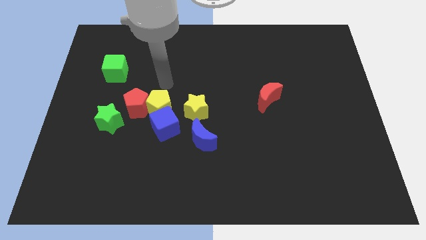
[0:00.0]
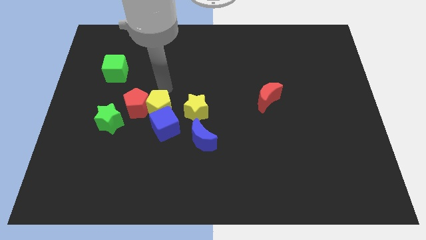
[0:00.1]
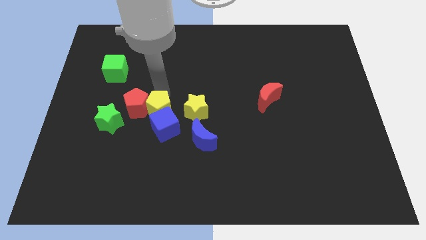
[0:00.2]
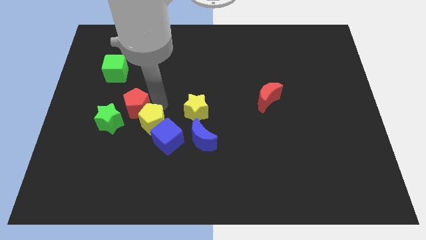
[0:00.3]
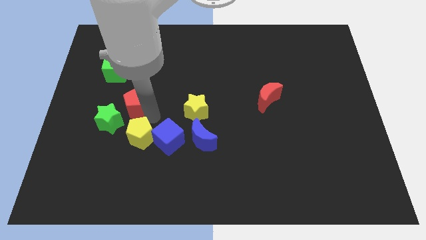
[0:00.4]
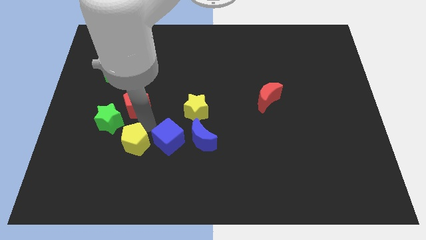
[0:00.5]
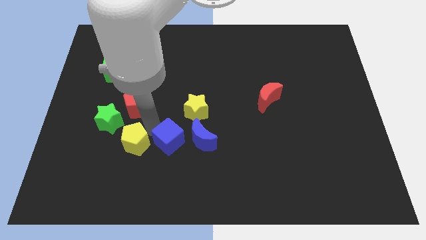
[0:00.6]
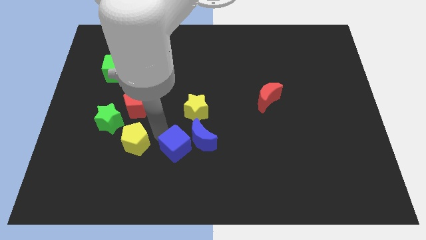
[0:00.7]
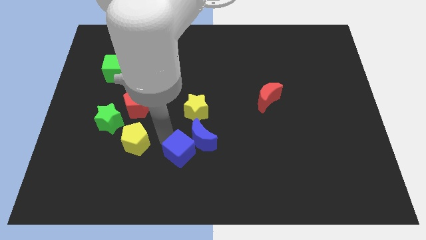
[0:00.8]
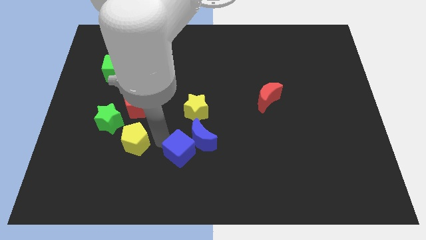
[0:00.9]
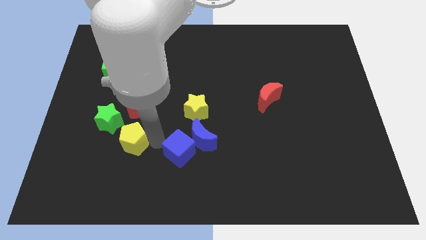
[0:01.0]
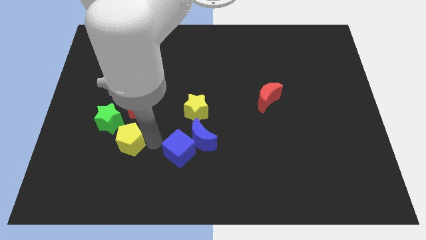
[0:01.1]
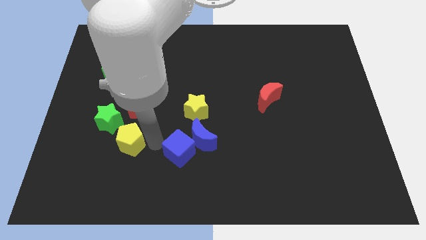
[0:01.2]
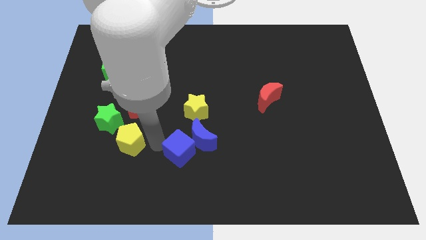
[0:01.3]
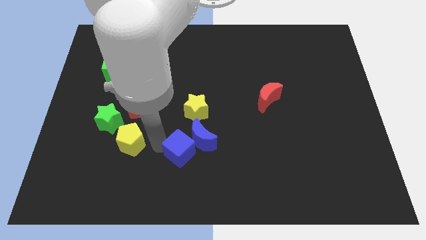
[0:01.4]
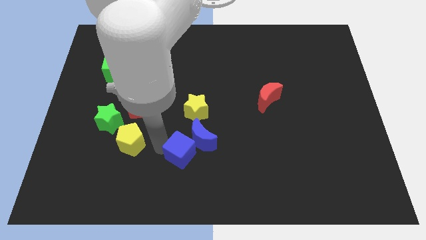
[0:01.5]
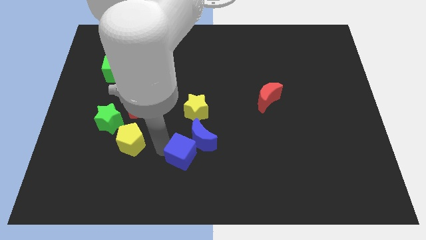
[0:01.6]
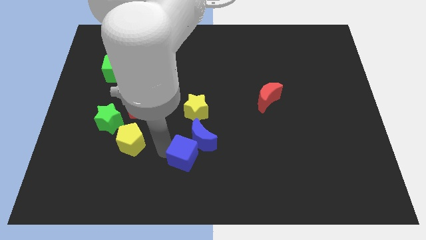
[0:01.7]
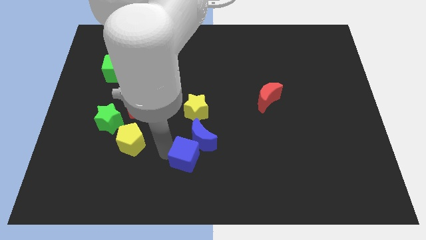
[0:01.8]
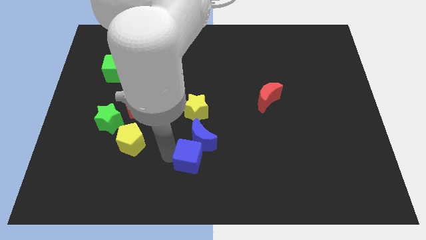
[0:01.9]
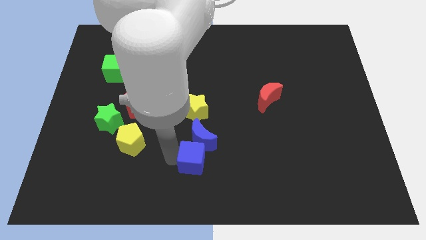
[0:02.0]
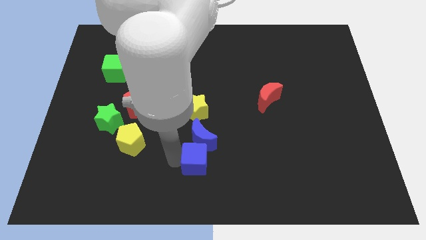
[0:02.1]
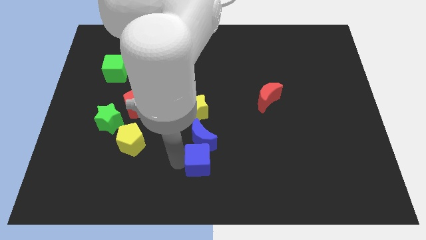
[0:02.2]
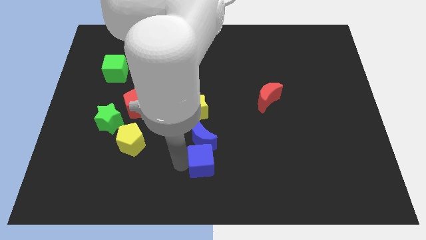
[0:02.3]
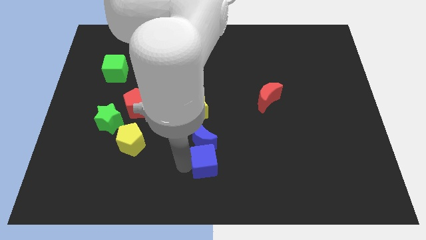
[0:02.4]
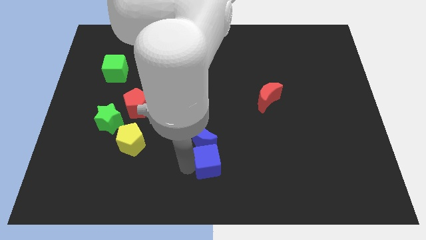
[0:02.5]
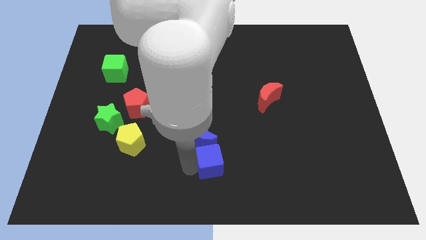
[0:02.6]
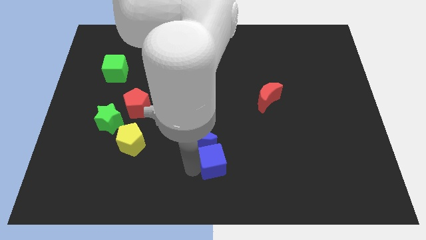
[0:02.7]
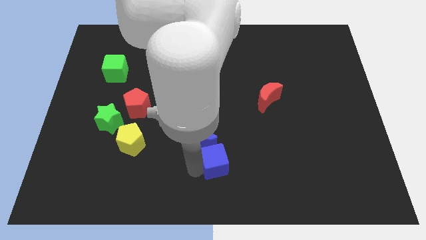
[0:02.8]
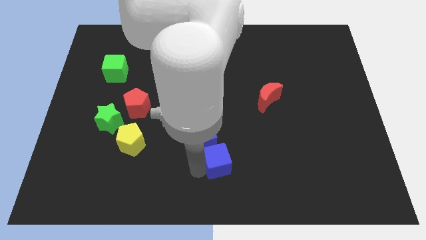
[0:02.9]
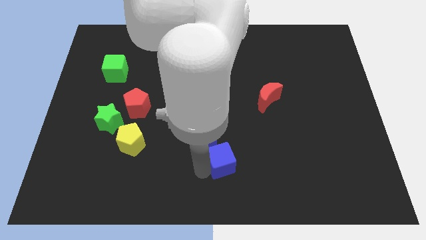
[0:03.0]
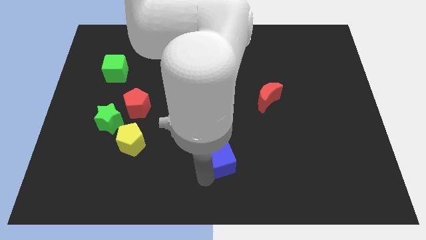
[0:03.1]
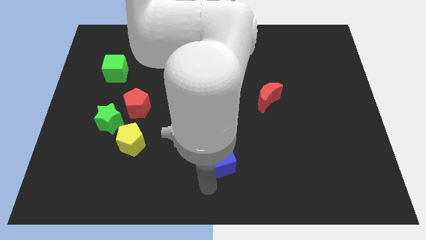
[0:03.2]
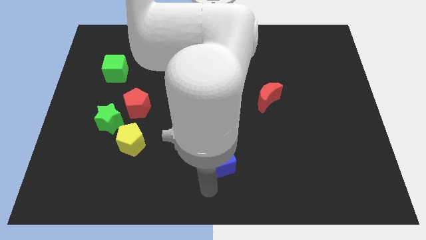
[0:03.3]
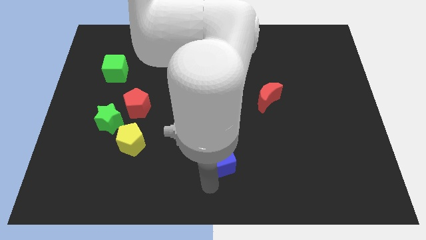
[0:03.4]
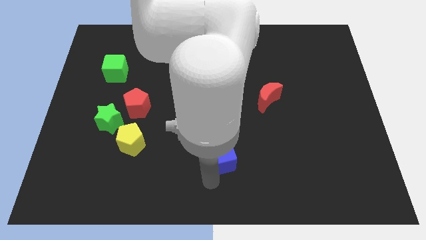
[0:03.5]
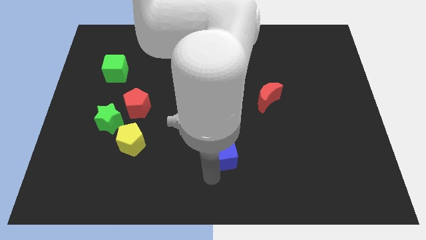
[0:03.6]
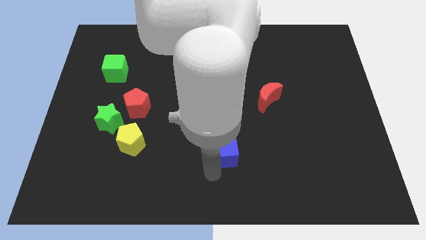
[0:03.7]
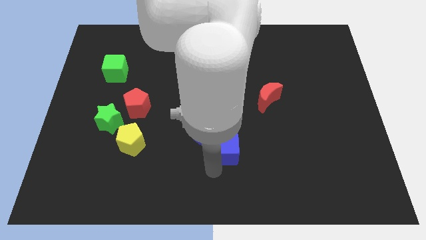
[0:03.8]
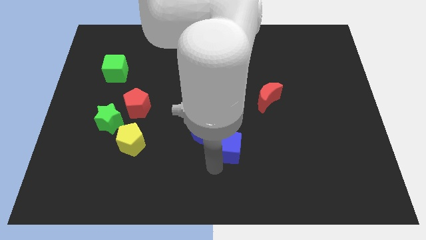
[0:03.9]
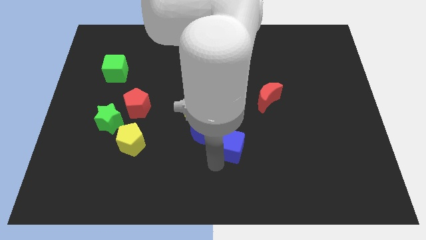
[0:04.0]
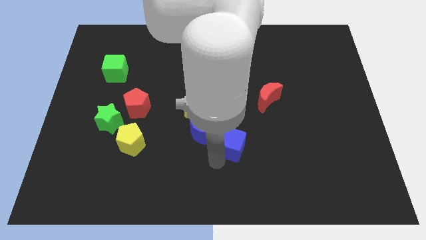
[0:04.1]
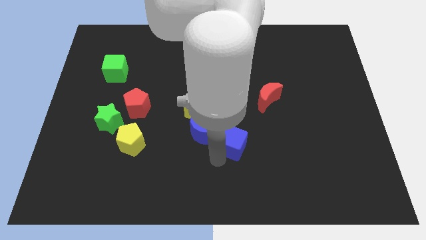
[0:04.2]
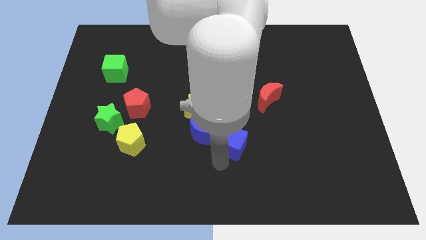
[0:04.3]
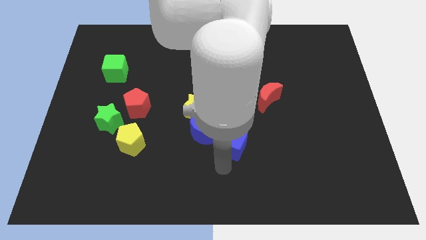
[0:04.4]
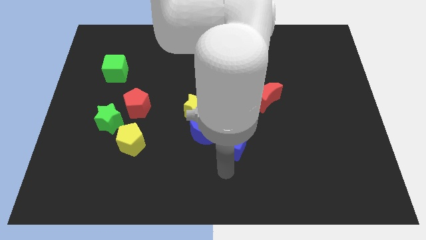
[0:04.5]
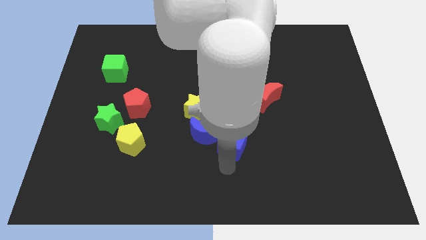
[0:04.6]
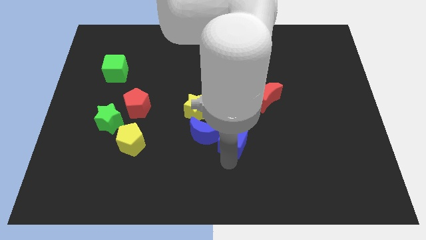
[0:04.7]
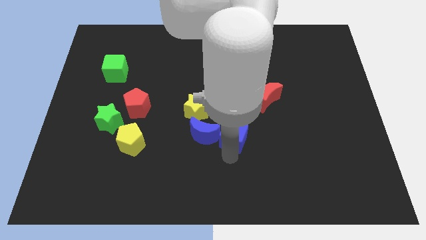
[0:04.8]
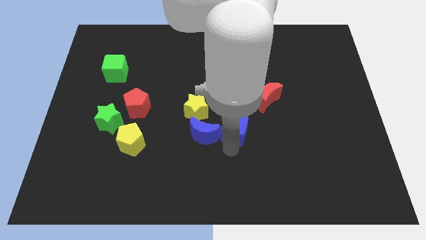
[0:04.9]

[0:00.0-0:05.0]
push the blue cube to the bottom left side of the red moon

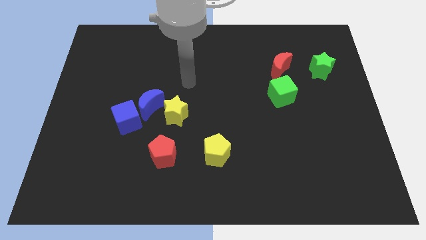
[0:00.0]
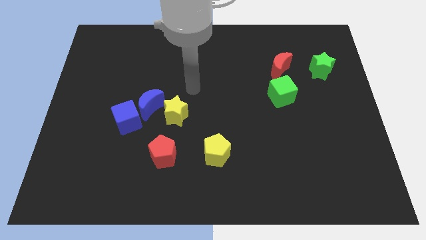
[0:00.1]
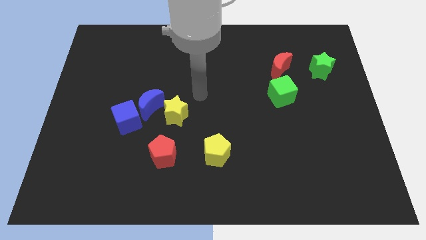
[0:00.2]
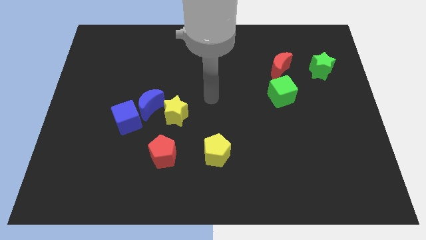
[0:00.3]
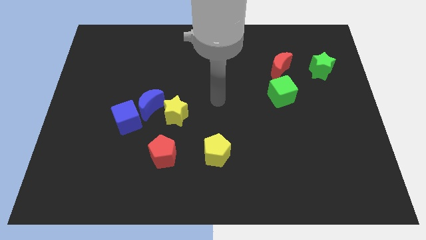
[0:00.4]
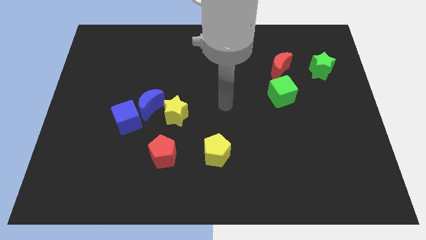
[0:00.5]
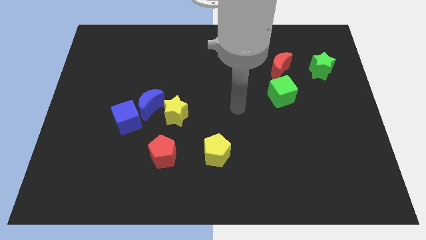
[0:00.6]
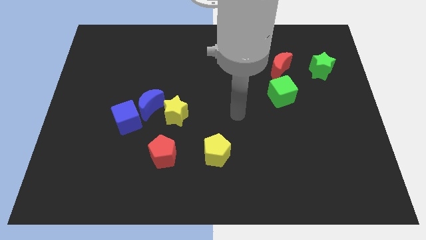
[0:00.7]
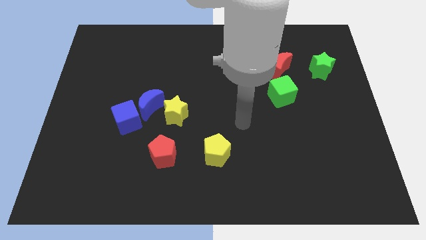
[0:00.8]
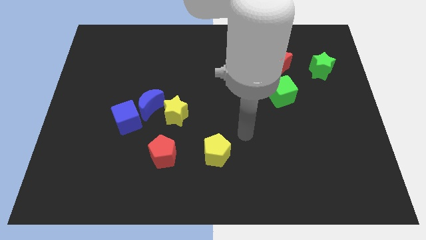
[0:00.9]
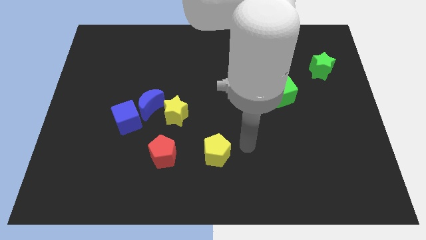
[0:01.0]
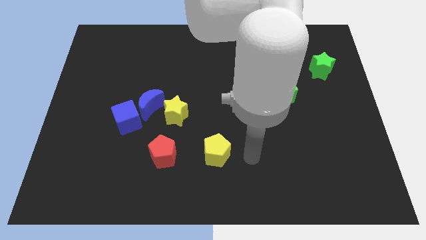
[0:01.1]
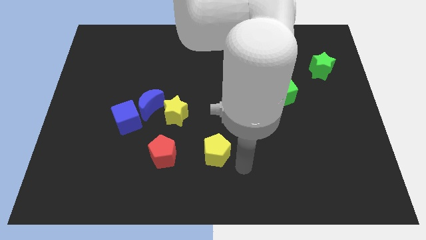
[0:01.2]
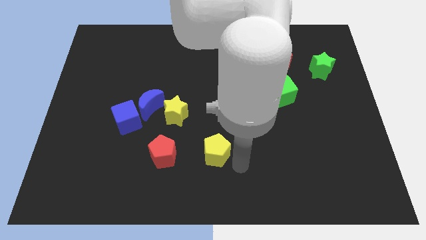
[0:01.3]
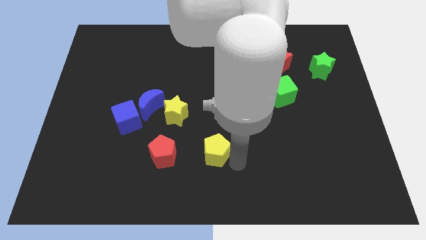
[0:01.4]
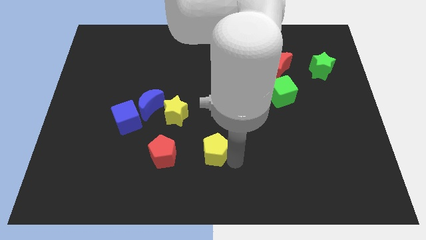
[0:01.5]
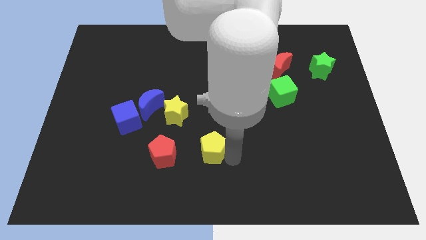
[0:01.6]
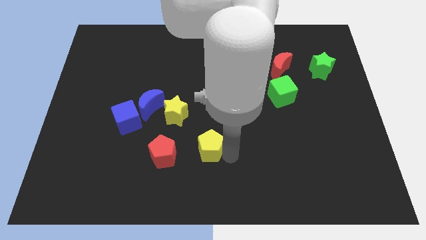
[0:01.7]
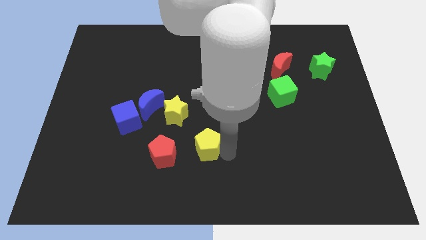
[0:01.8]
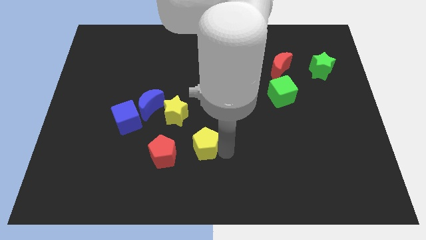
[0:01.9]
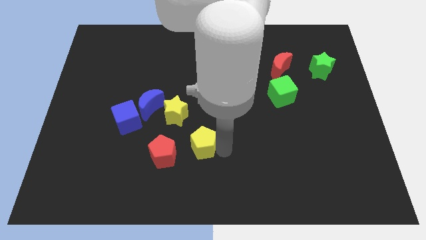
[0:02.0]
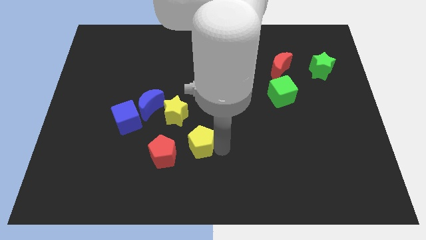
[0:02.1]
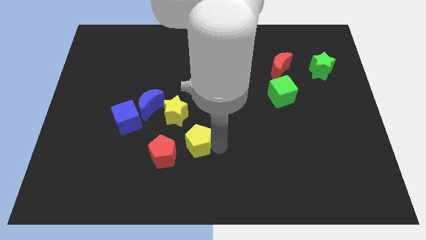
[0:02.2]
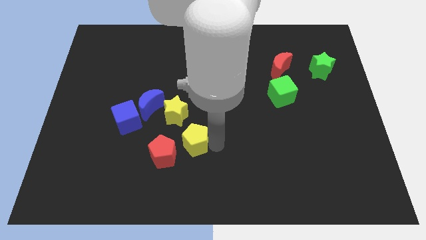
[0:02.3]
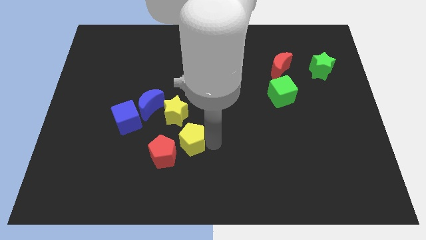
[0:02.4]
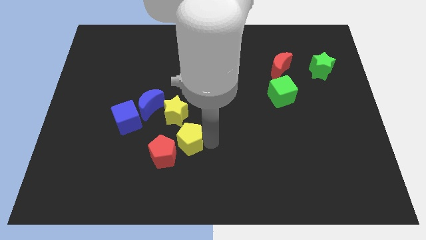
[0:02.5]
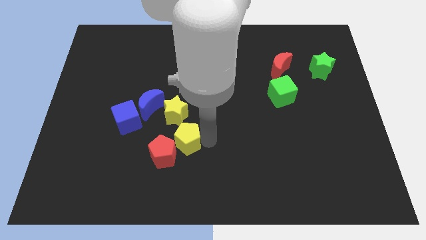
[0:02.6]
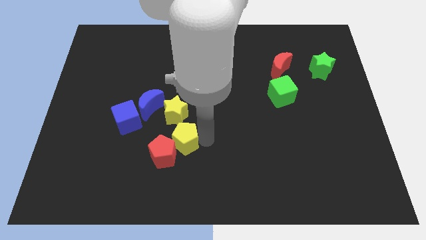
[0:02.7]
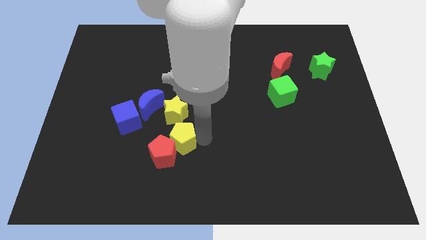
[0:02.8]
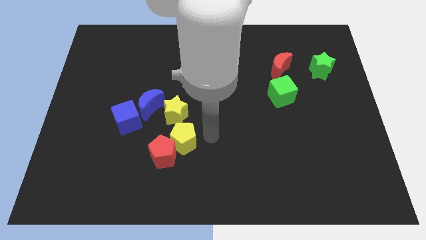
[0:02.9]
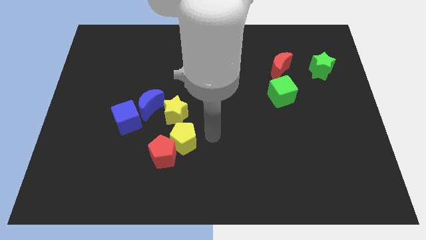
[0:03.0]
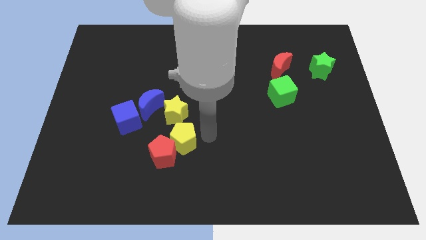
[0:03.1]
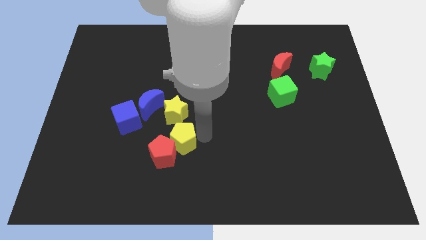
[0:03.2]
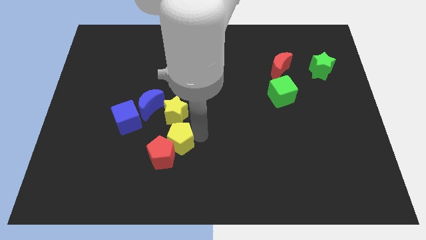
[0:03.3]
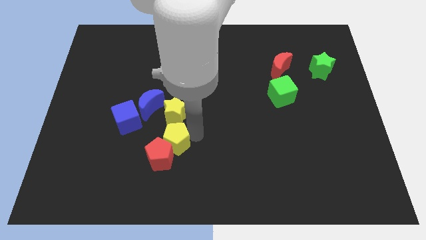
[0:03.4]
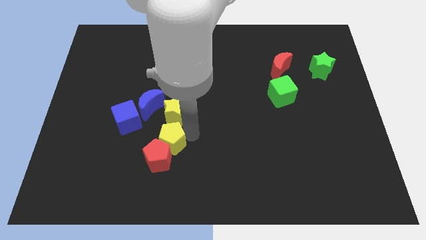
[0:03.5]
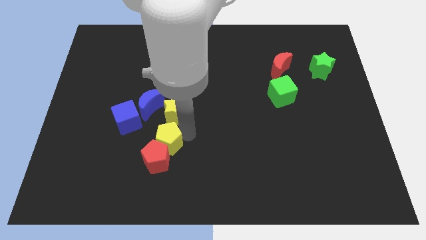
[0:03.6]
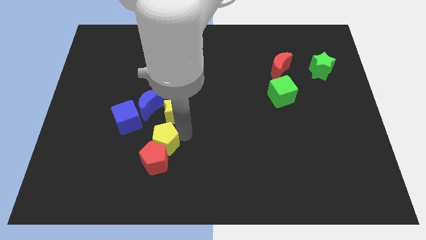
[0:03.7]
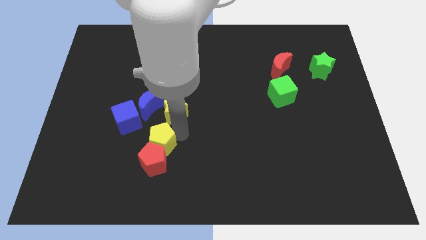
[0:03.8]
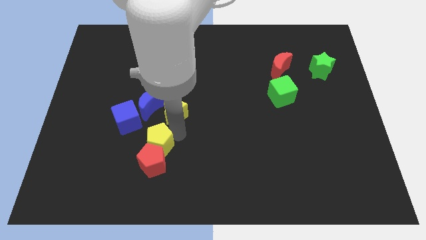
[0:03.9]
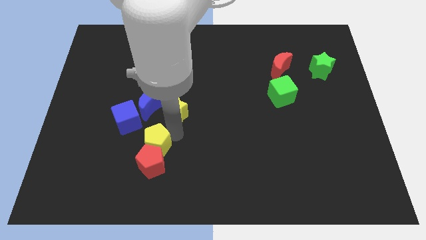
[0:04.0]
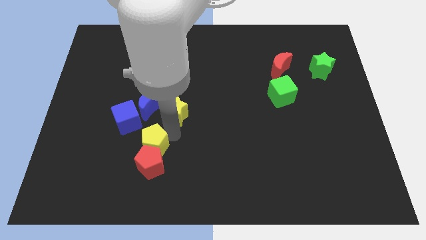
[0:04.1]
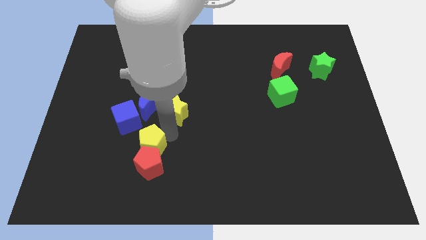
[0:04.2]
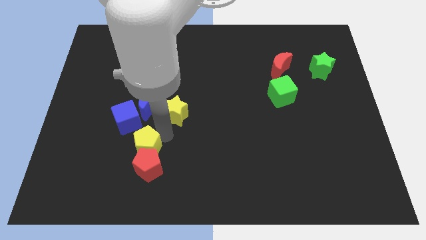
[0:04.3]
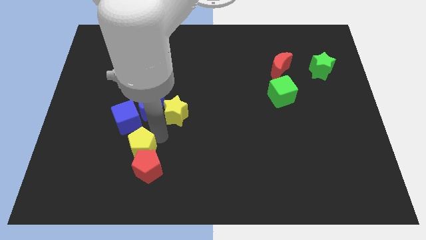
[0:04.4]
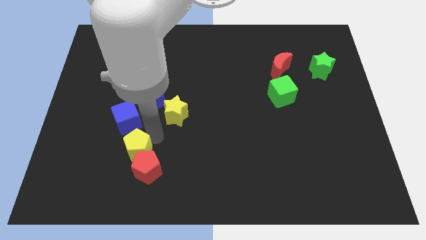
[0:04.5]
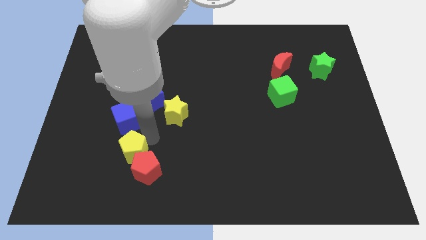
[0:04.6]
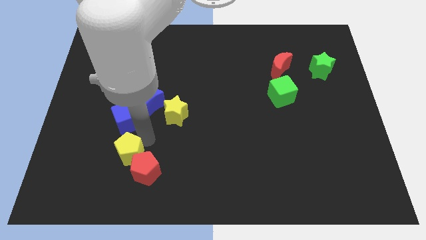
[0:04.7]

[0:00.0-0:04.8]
put the yellow pentagon left of the red pentagon
